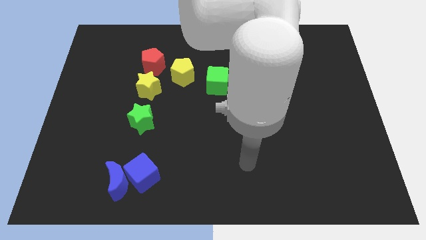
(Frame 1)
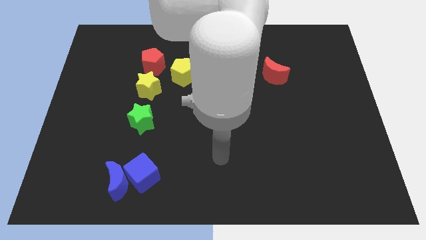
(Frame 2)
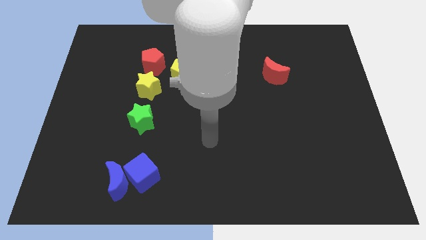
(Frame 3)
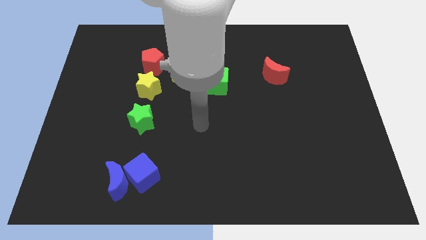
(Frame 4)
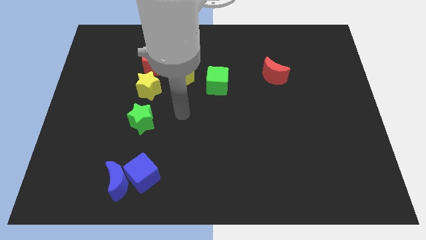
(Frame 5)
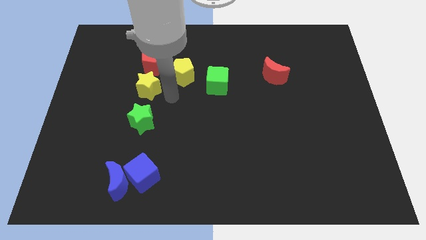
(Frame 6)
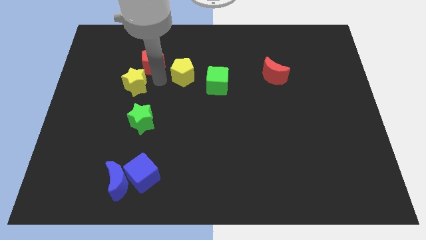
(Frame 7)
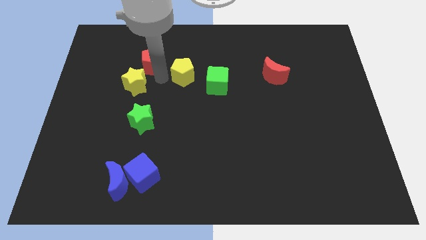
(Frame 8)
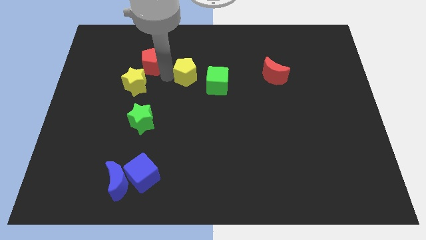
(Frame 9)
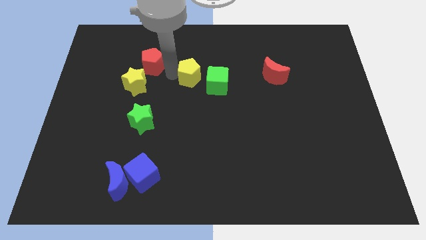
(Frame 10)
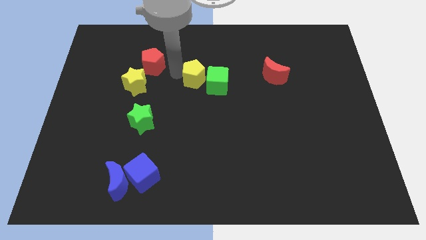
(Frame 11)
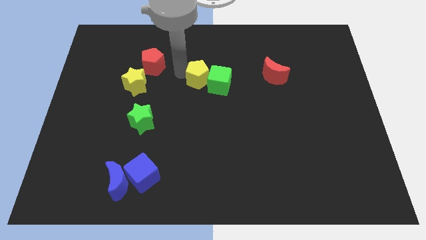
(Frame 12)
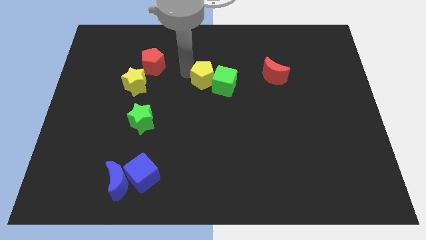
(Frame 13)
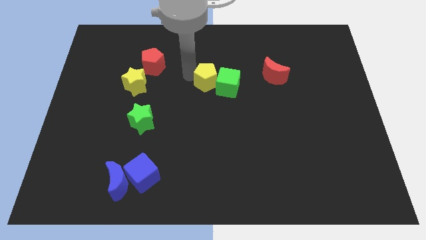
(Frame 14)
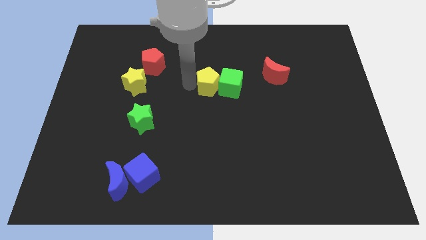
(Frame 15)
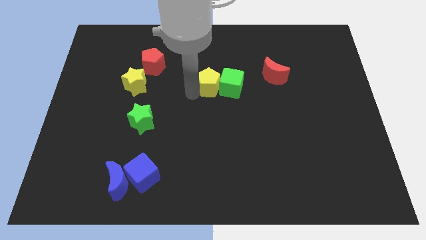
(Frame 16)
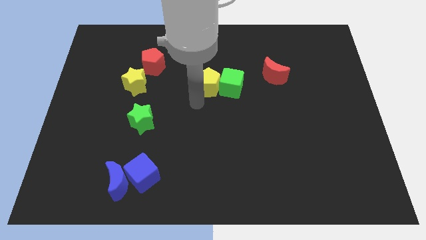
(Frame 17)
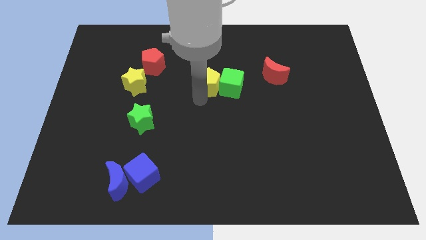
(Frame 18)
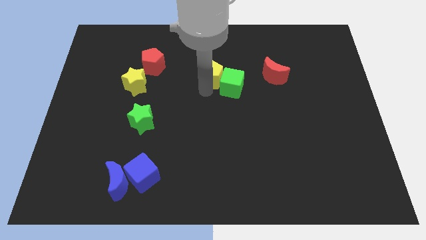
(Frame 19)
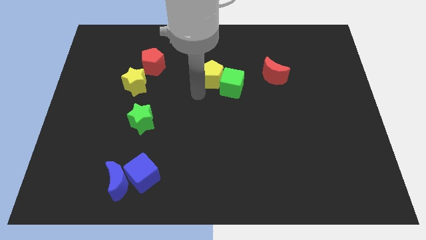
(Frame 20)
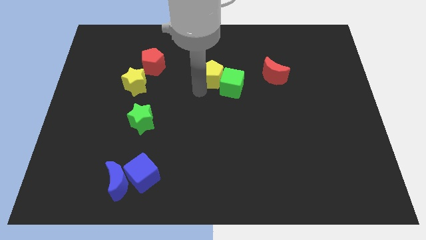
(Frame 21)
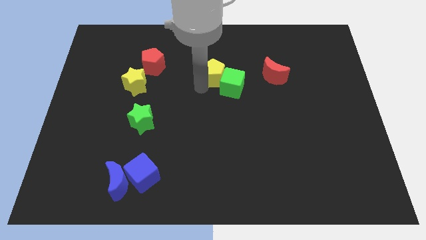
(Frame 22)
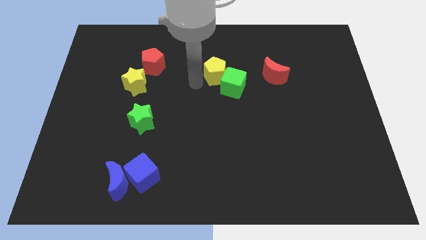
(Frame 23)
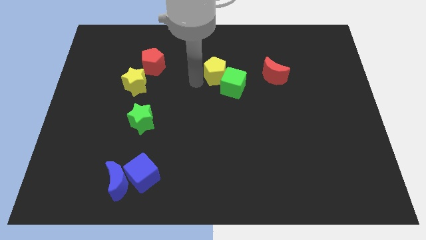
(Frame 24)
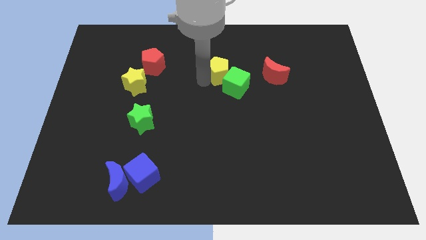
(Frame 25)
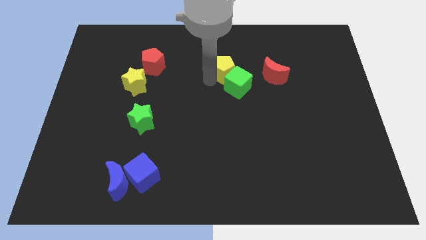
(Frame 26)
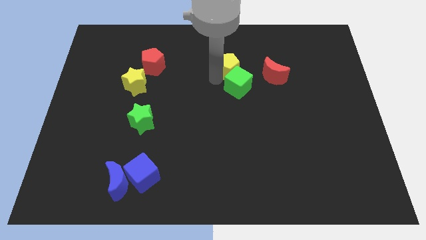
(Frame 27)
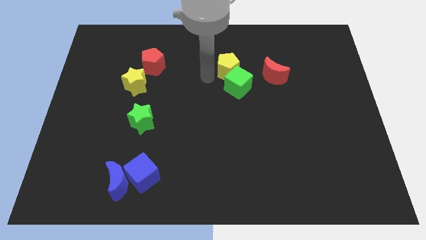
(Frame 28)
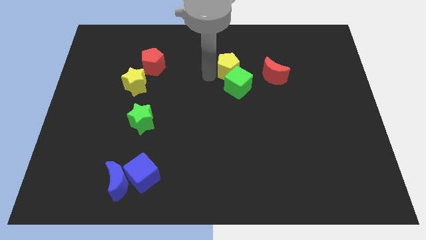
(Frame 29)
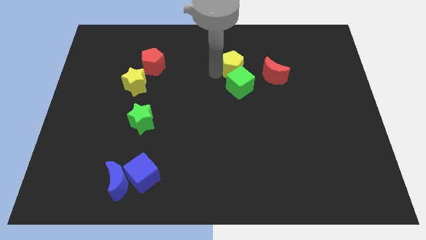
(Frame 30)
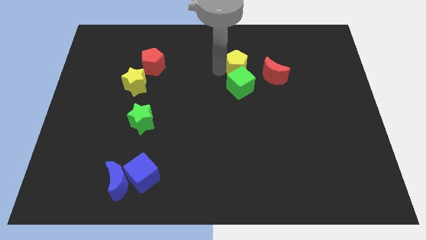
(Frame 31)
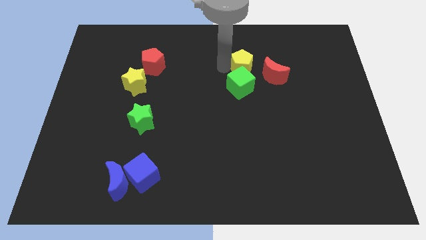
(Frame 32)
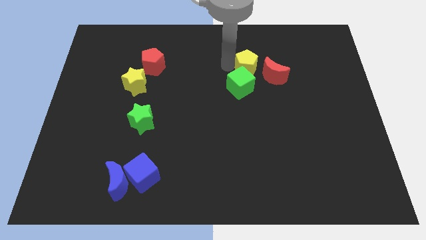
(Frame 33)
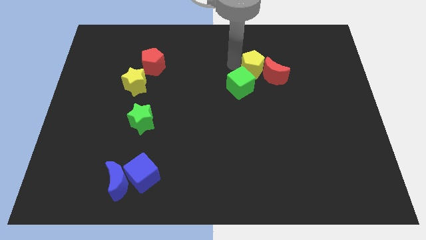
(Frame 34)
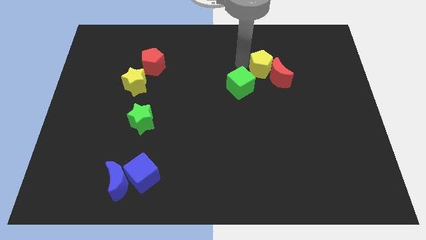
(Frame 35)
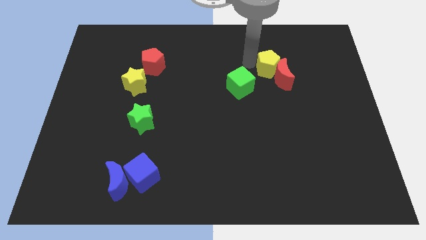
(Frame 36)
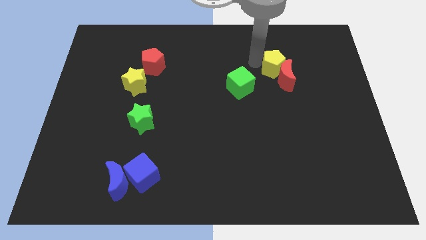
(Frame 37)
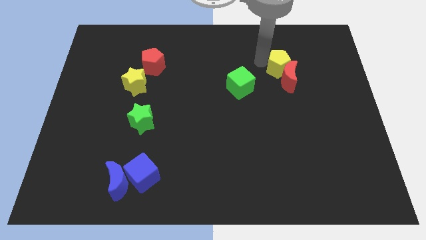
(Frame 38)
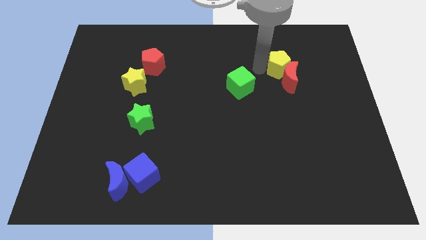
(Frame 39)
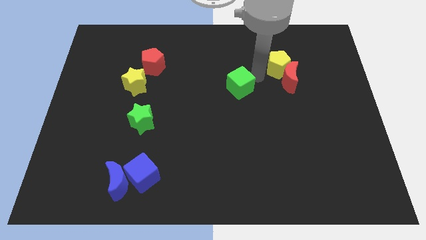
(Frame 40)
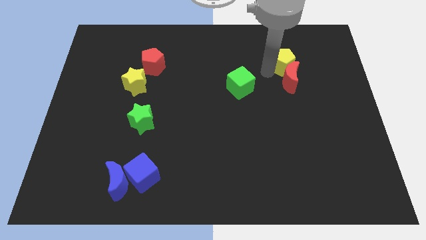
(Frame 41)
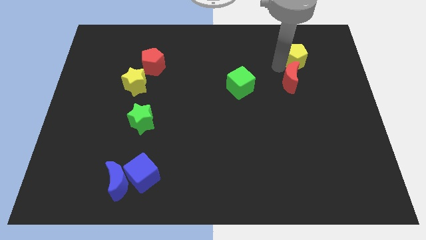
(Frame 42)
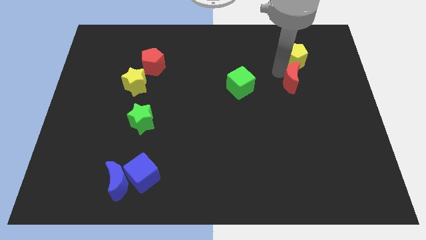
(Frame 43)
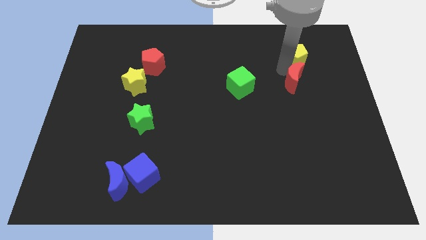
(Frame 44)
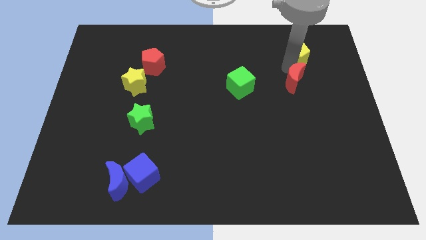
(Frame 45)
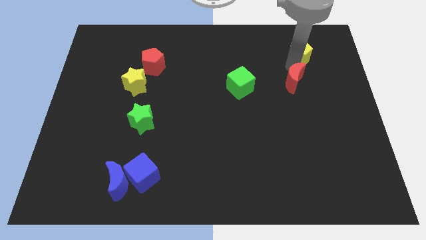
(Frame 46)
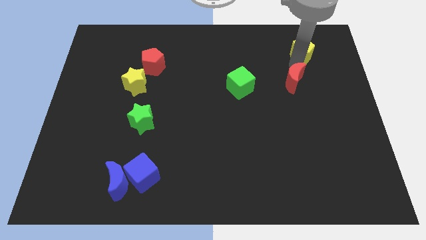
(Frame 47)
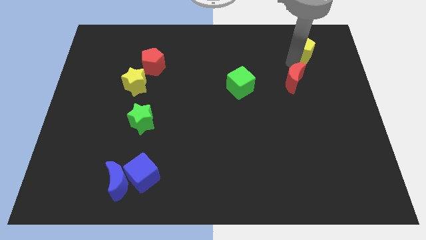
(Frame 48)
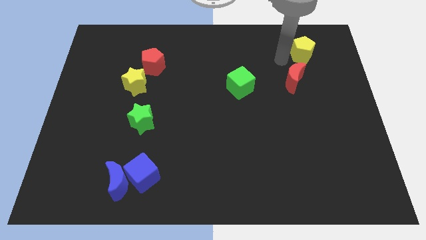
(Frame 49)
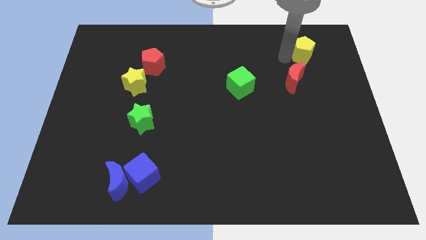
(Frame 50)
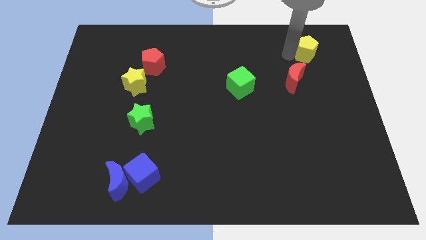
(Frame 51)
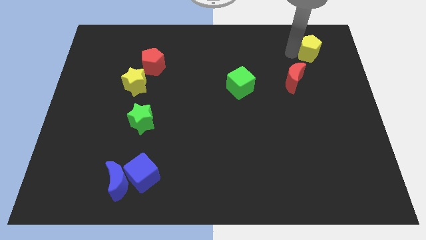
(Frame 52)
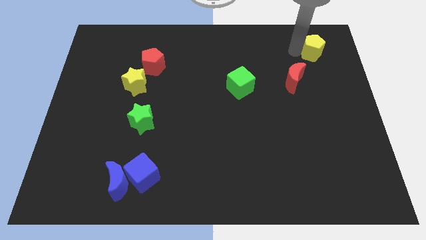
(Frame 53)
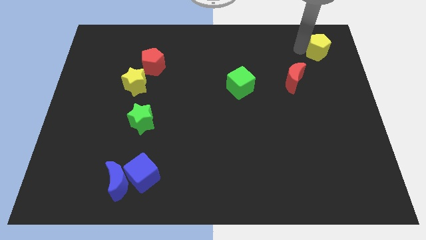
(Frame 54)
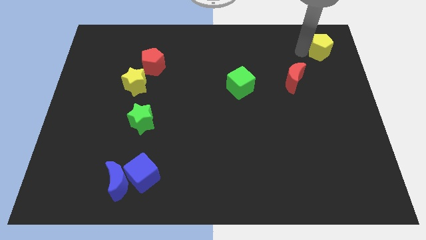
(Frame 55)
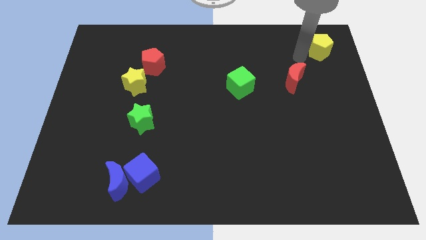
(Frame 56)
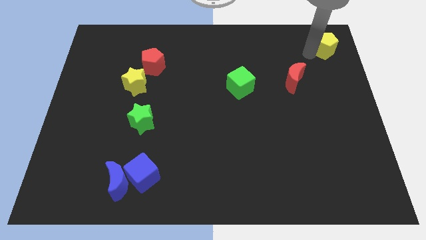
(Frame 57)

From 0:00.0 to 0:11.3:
move the yellow pentagon to the upper right corner
